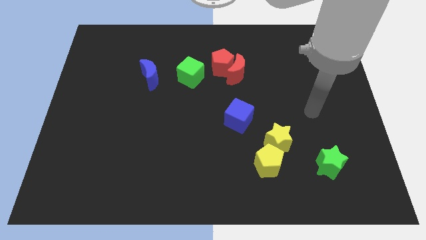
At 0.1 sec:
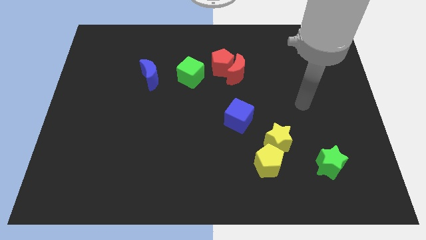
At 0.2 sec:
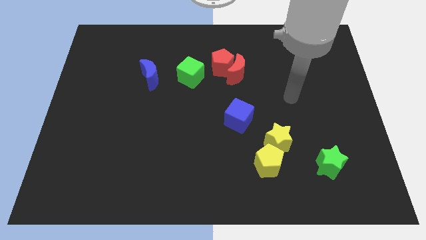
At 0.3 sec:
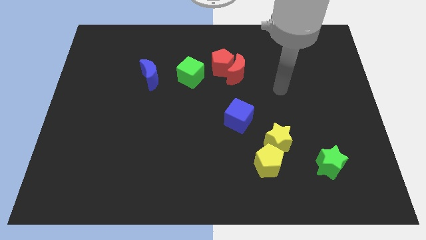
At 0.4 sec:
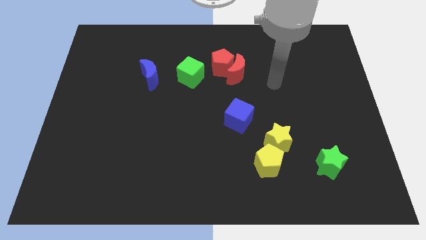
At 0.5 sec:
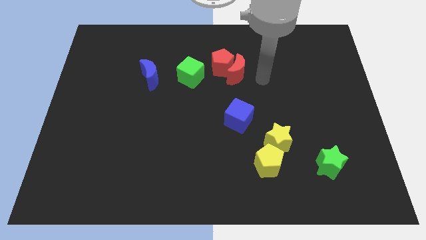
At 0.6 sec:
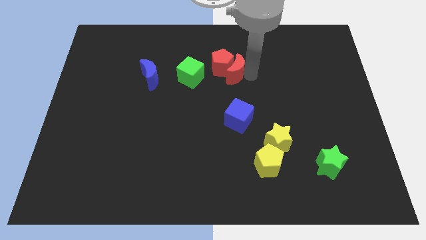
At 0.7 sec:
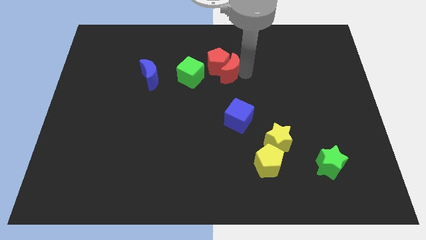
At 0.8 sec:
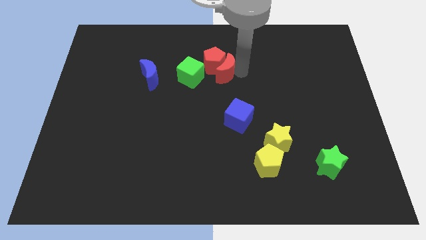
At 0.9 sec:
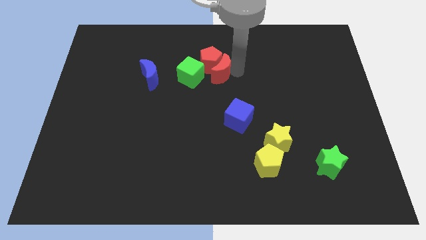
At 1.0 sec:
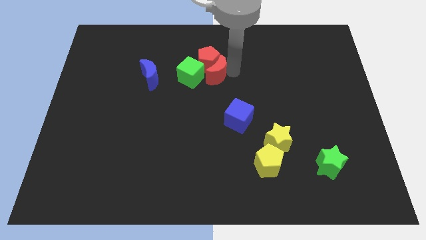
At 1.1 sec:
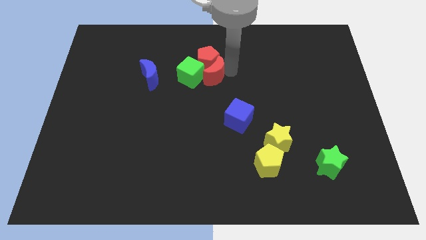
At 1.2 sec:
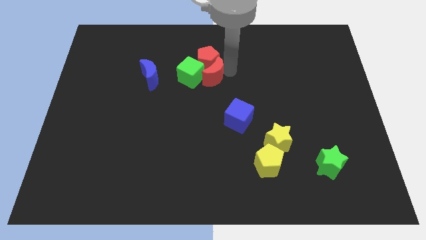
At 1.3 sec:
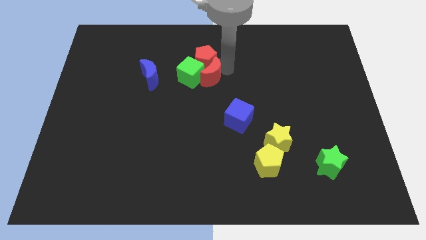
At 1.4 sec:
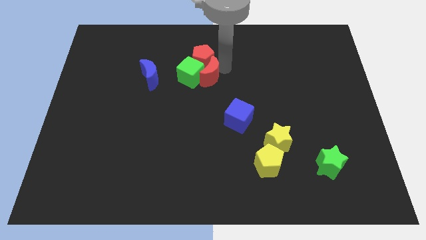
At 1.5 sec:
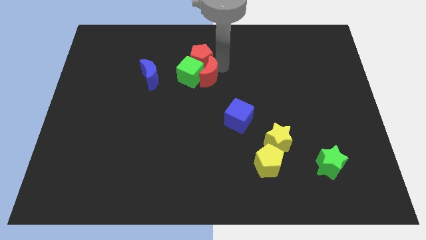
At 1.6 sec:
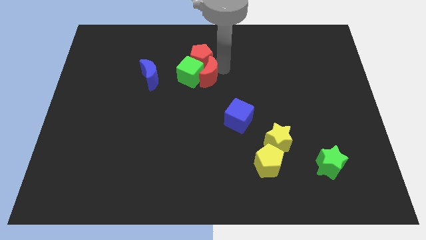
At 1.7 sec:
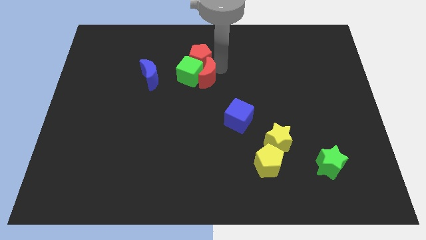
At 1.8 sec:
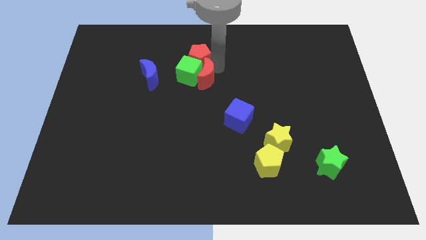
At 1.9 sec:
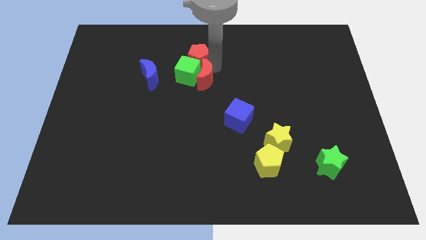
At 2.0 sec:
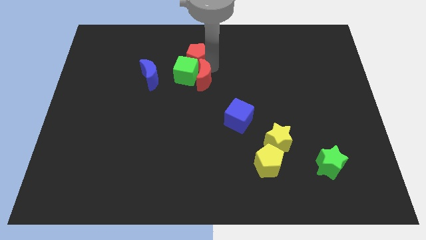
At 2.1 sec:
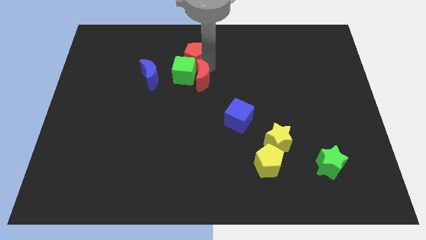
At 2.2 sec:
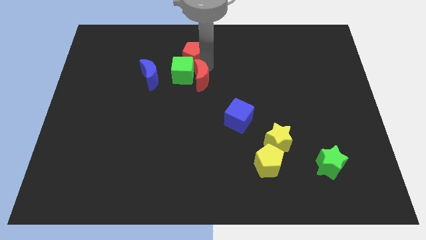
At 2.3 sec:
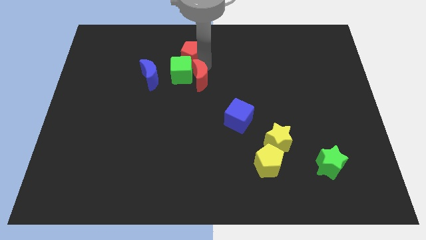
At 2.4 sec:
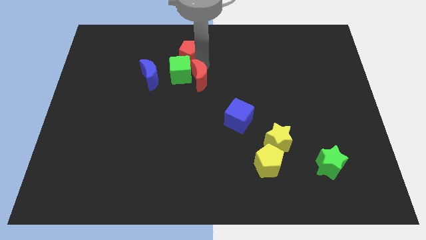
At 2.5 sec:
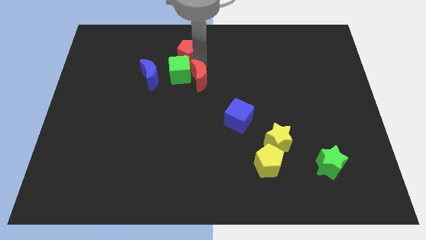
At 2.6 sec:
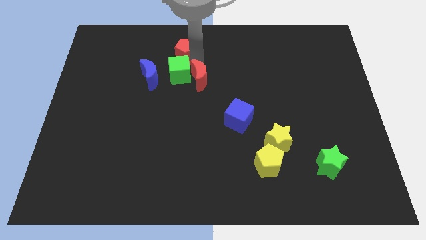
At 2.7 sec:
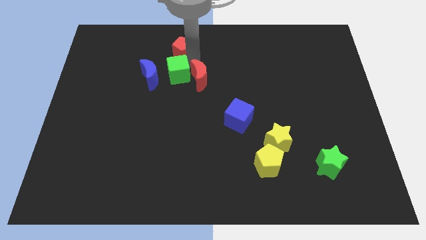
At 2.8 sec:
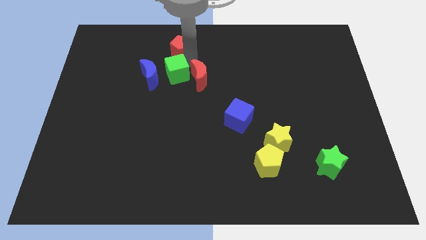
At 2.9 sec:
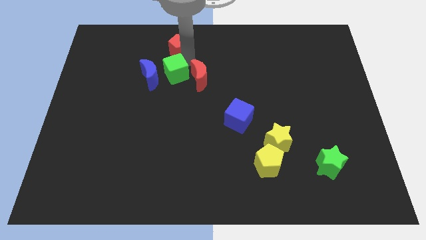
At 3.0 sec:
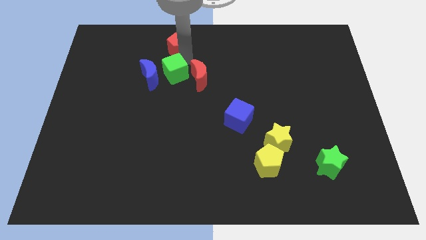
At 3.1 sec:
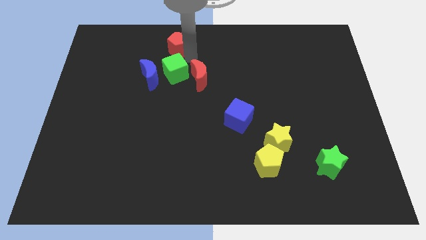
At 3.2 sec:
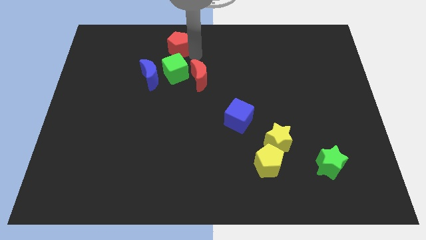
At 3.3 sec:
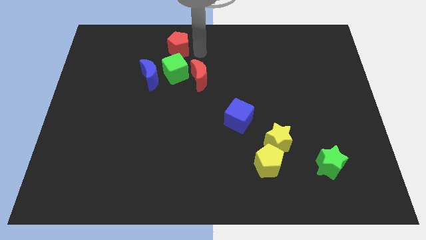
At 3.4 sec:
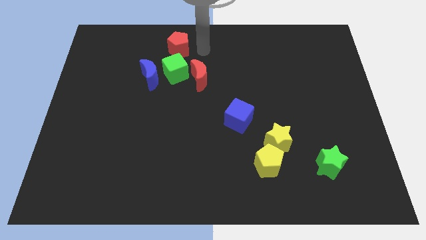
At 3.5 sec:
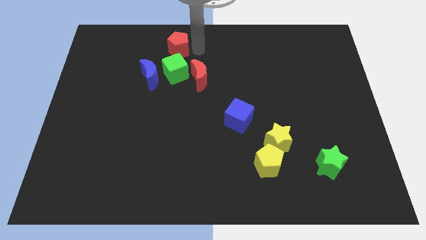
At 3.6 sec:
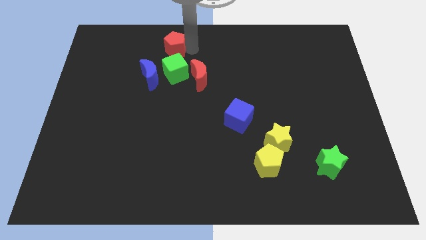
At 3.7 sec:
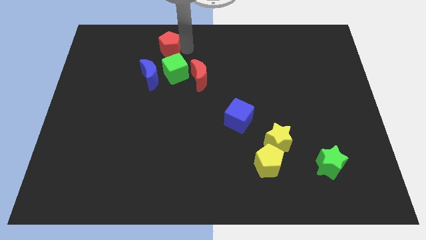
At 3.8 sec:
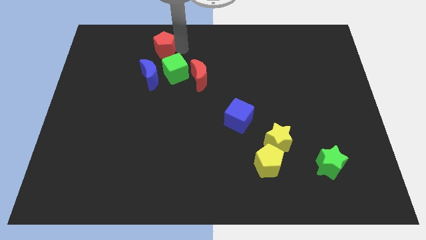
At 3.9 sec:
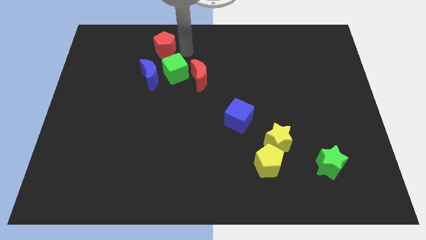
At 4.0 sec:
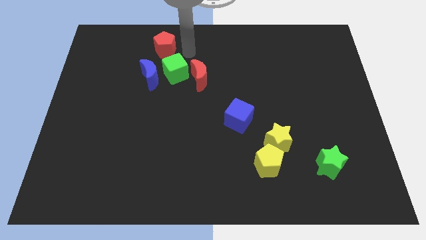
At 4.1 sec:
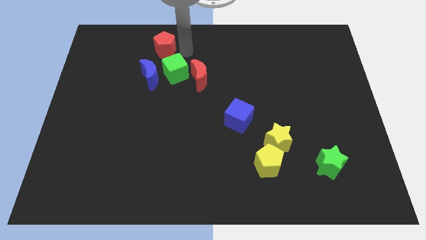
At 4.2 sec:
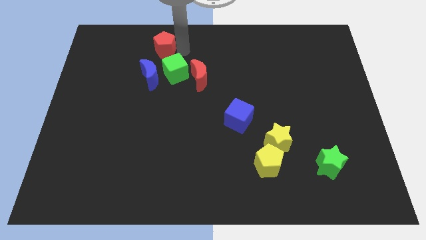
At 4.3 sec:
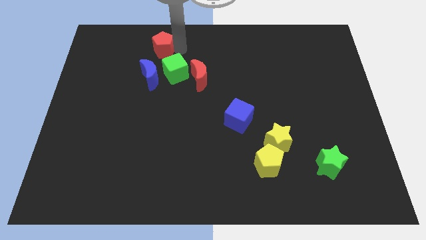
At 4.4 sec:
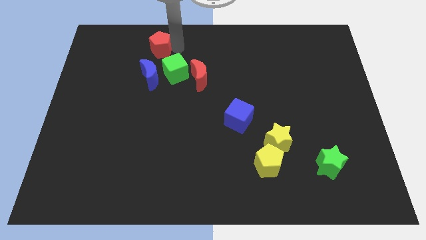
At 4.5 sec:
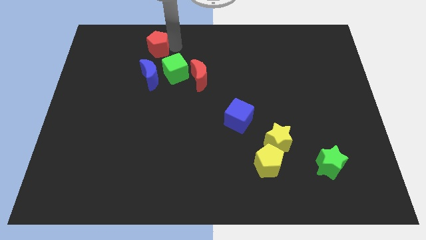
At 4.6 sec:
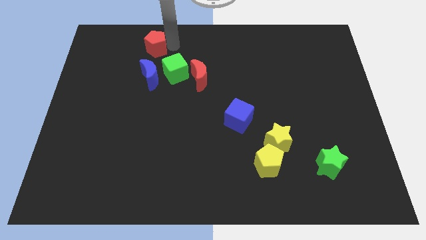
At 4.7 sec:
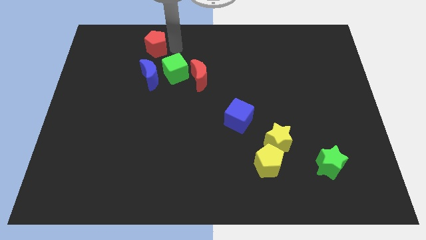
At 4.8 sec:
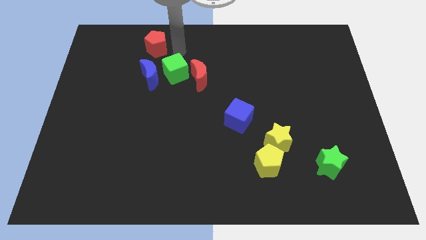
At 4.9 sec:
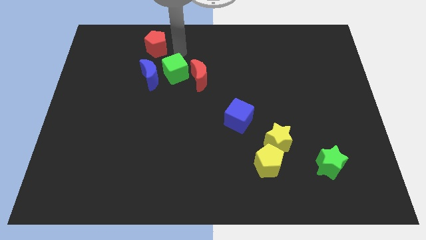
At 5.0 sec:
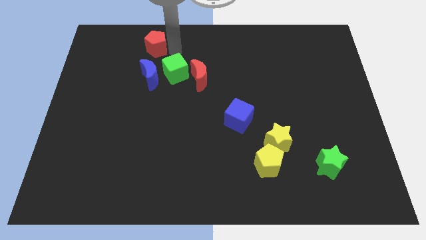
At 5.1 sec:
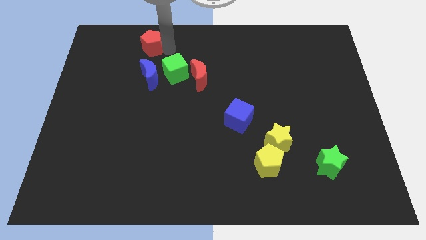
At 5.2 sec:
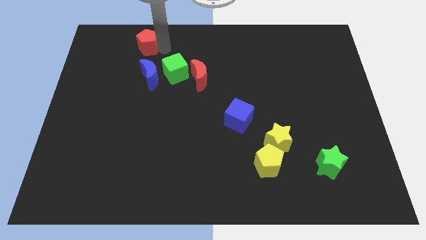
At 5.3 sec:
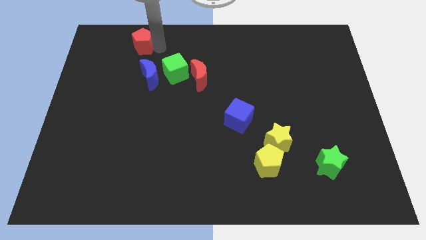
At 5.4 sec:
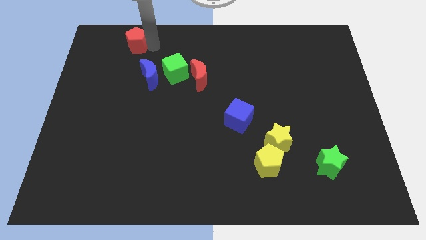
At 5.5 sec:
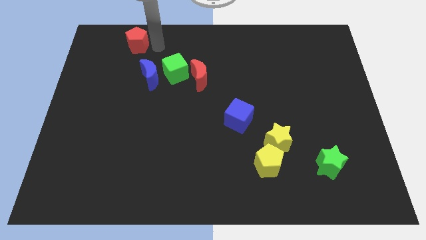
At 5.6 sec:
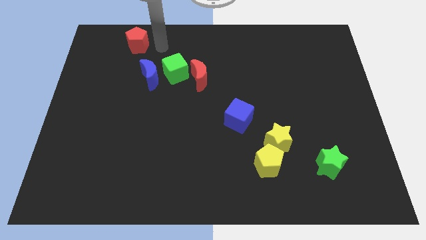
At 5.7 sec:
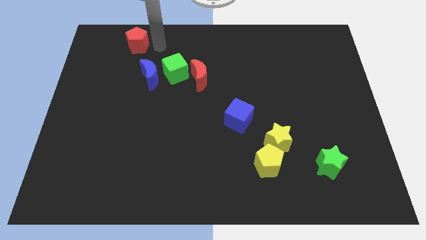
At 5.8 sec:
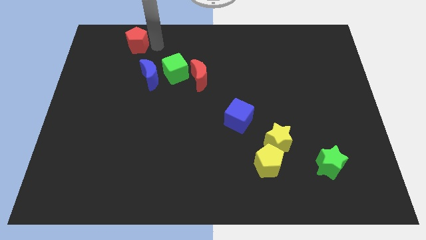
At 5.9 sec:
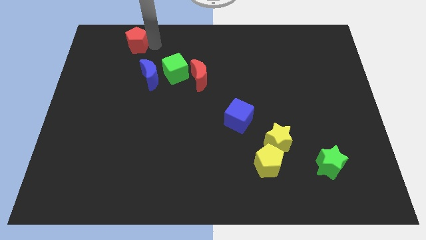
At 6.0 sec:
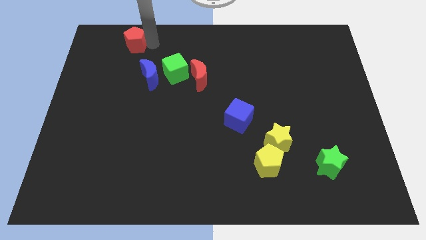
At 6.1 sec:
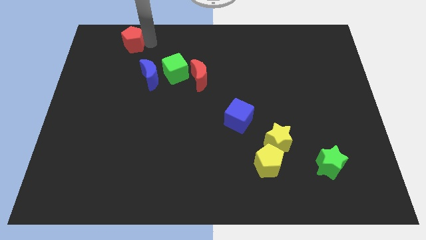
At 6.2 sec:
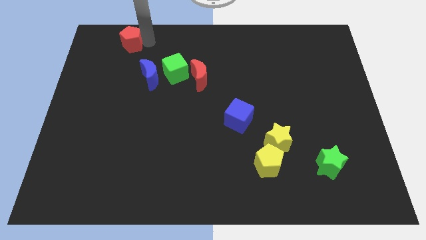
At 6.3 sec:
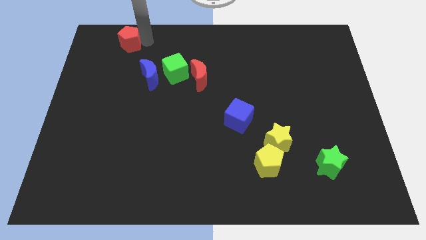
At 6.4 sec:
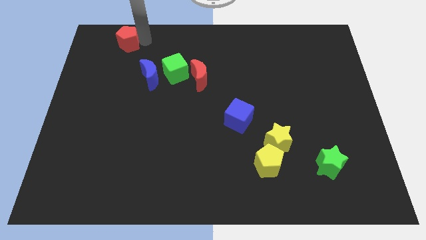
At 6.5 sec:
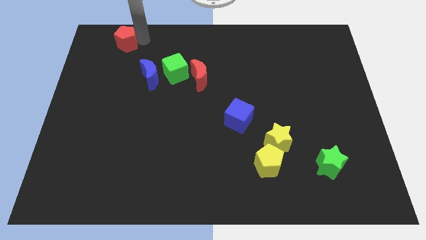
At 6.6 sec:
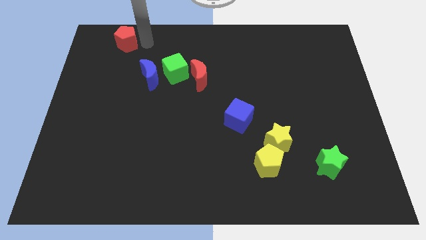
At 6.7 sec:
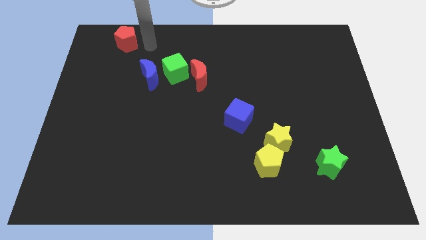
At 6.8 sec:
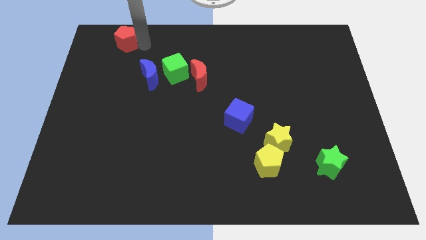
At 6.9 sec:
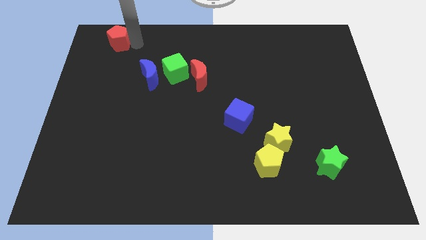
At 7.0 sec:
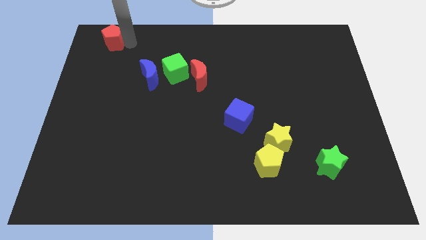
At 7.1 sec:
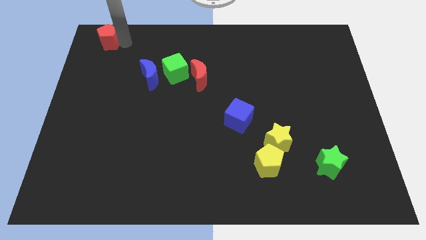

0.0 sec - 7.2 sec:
push the red pentagon to the upper left corner

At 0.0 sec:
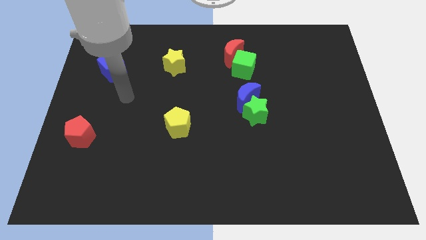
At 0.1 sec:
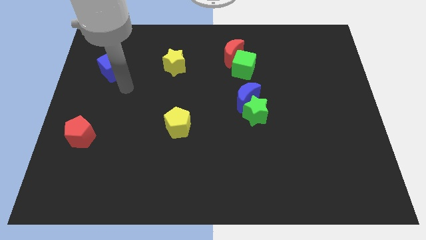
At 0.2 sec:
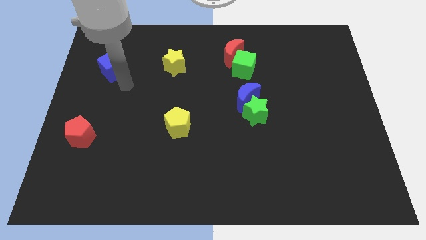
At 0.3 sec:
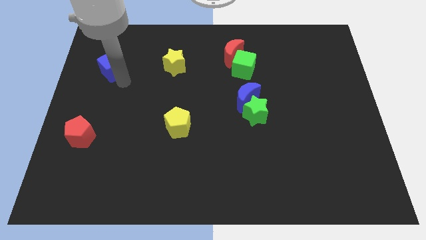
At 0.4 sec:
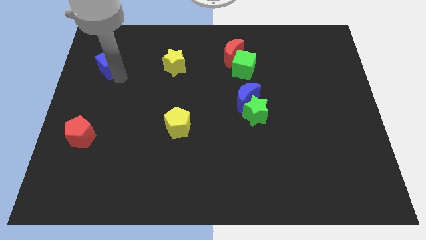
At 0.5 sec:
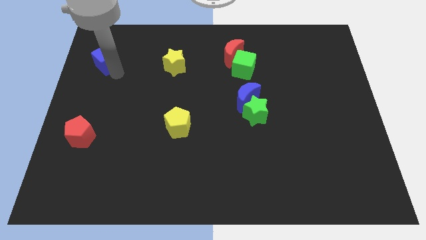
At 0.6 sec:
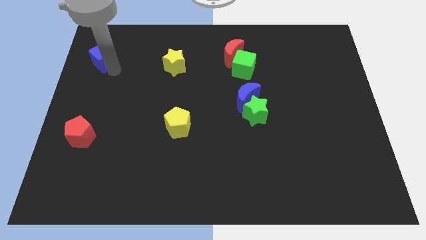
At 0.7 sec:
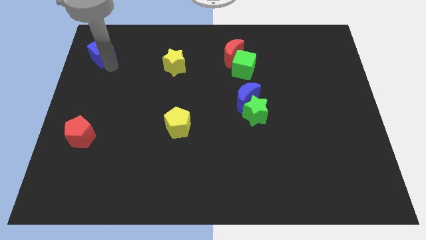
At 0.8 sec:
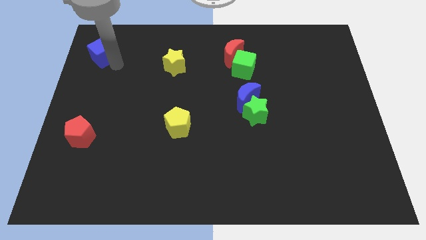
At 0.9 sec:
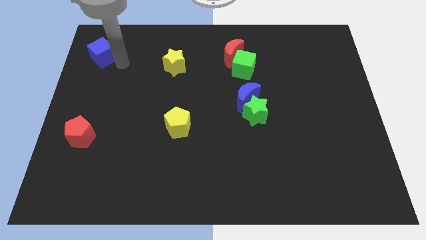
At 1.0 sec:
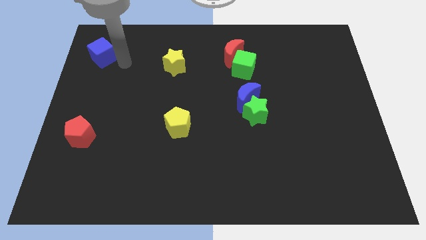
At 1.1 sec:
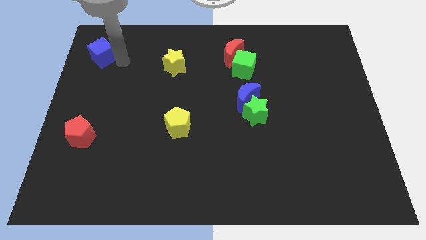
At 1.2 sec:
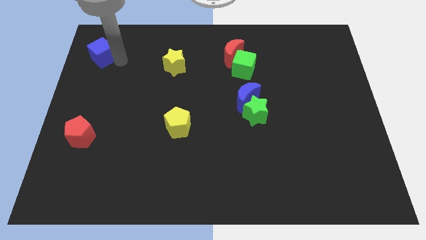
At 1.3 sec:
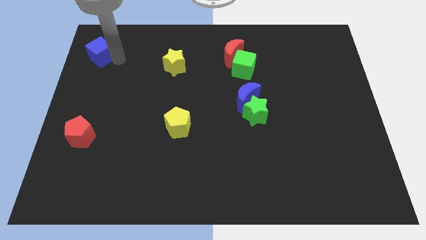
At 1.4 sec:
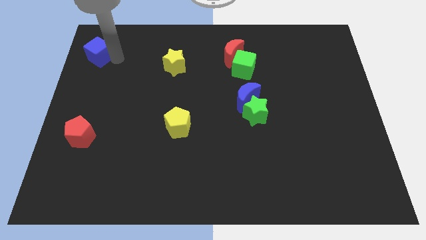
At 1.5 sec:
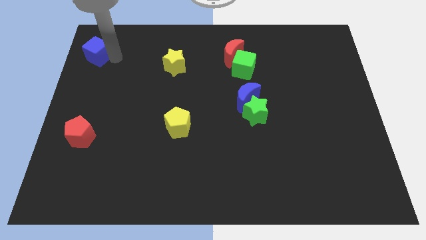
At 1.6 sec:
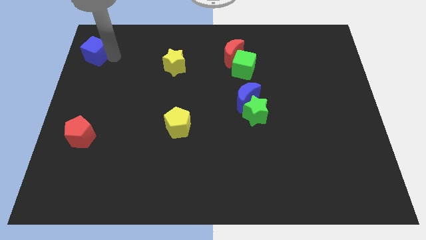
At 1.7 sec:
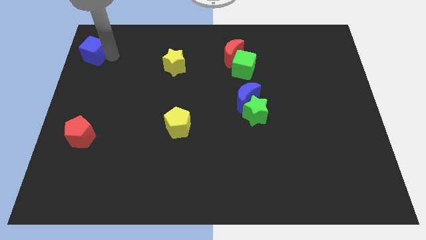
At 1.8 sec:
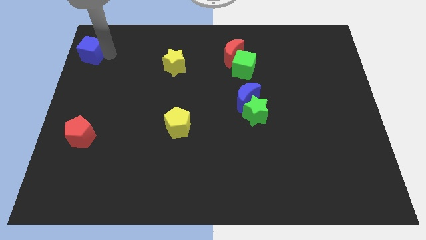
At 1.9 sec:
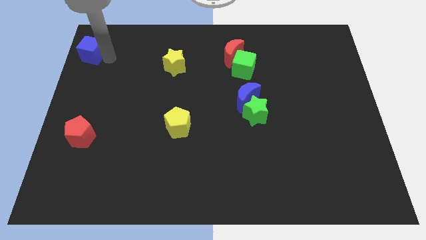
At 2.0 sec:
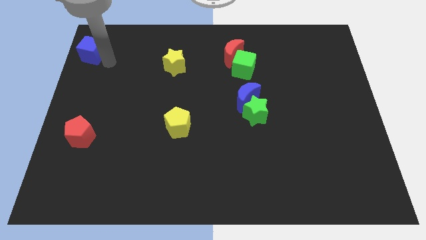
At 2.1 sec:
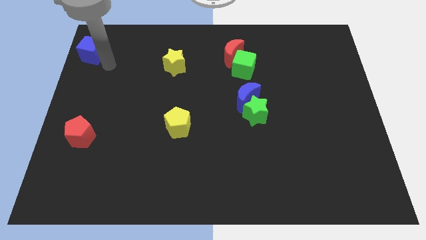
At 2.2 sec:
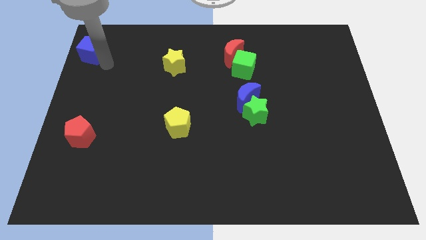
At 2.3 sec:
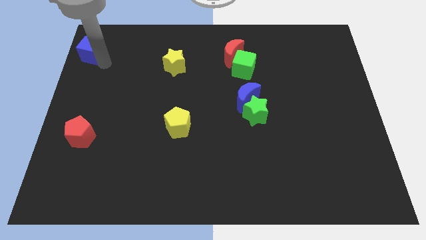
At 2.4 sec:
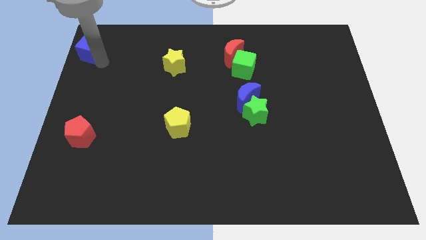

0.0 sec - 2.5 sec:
put the blue cube to the top left
